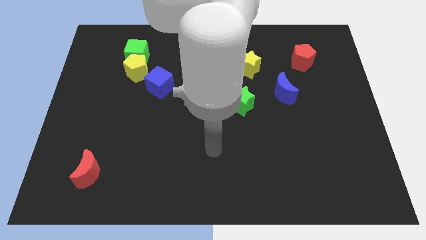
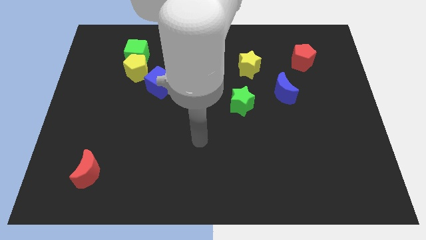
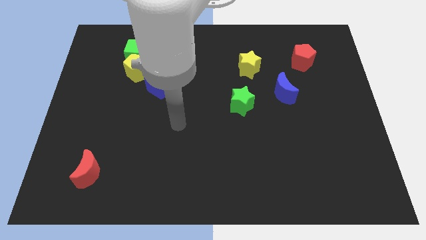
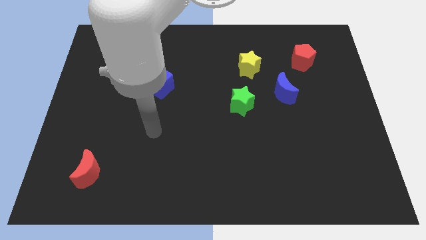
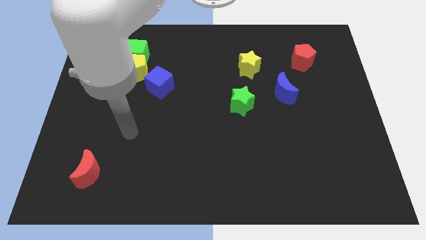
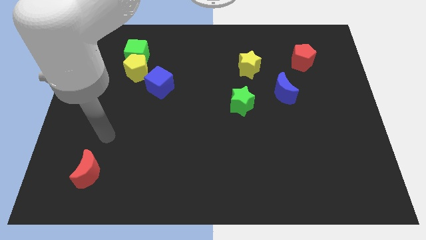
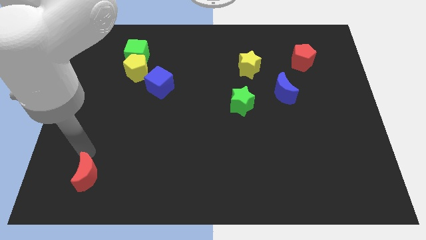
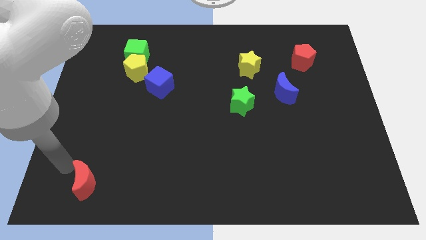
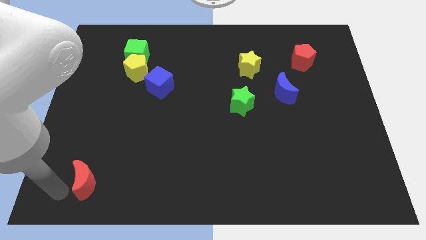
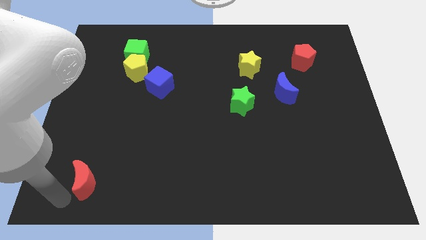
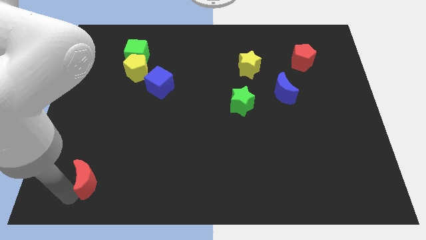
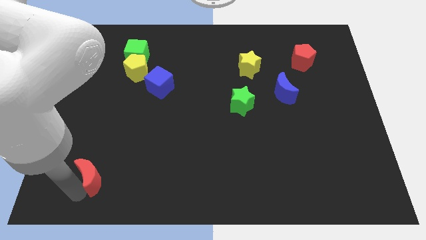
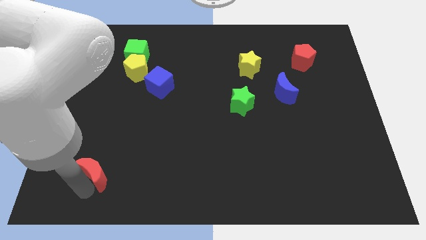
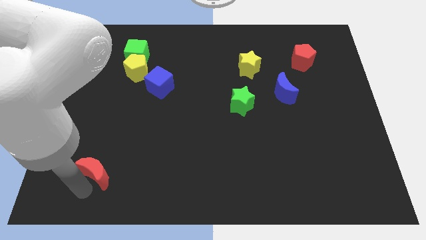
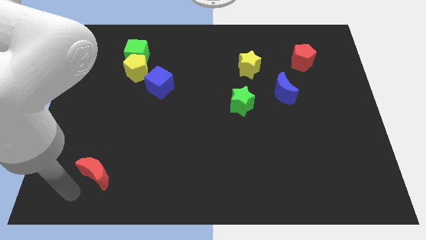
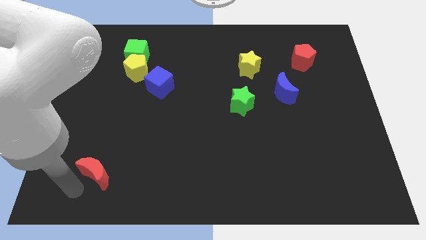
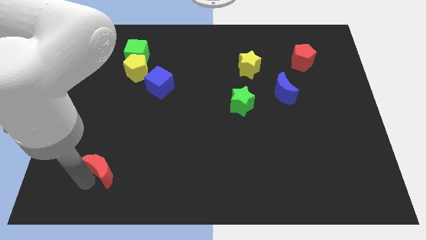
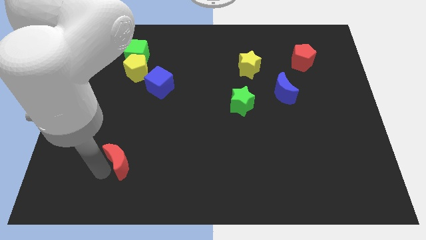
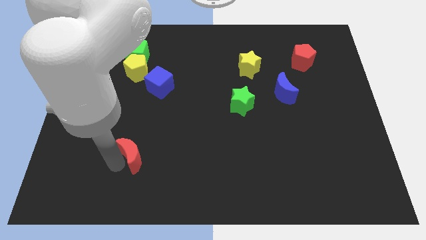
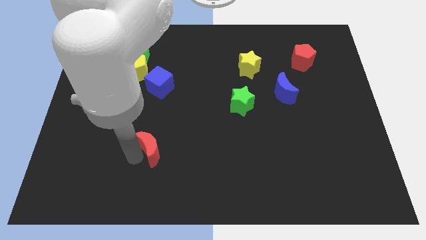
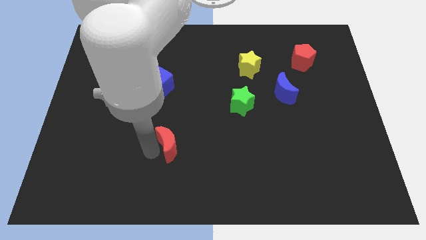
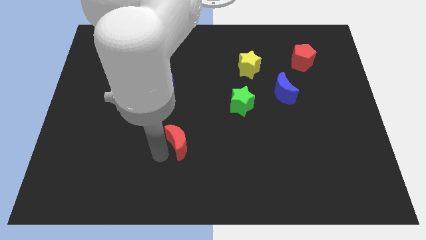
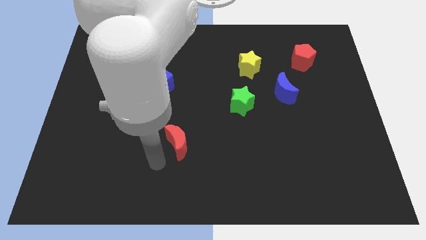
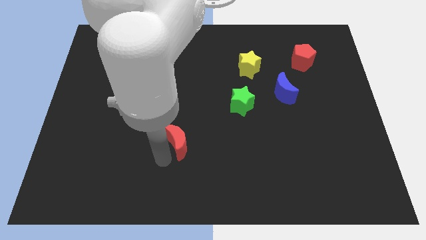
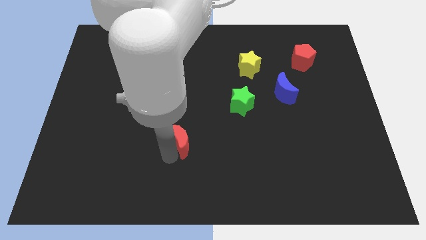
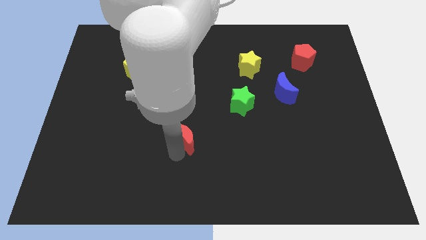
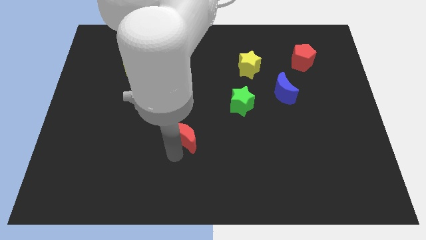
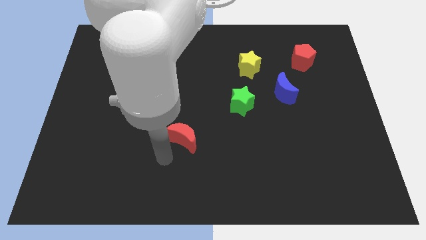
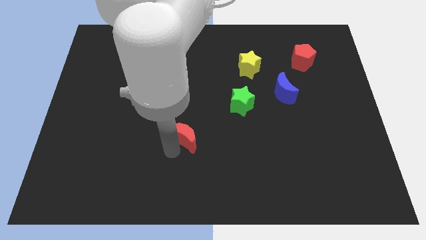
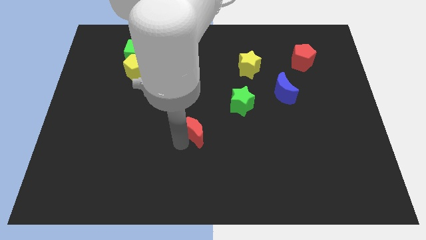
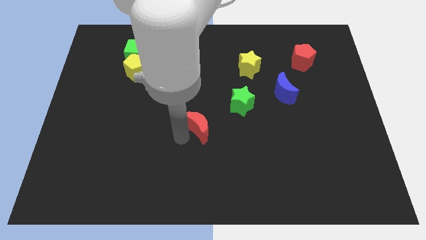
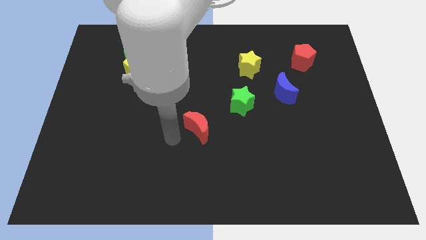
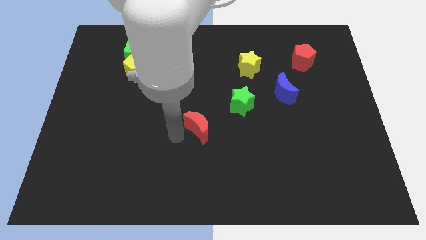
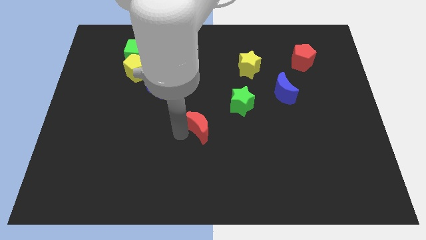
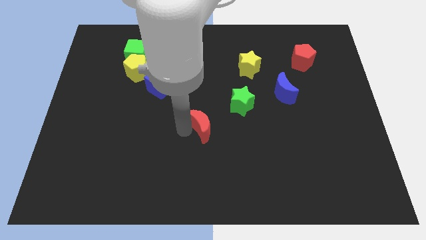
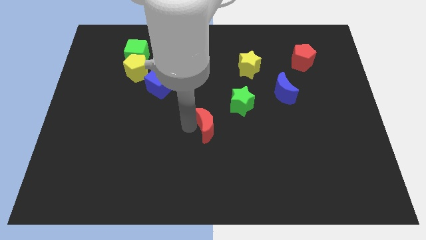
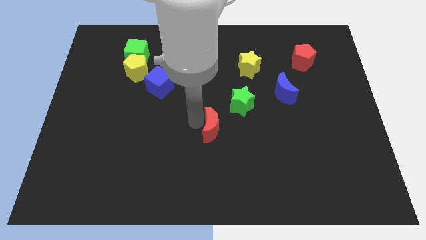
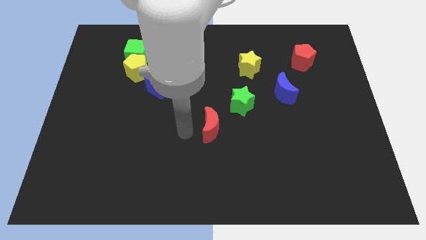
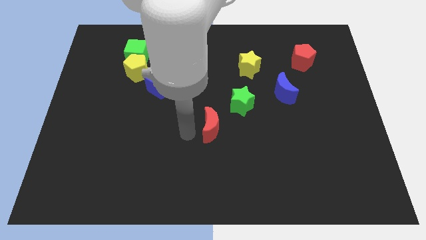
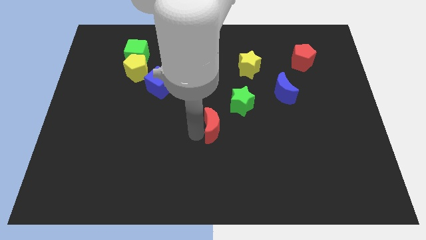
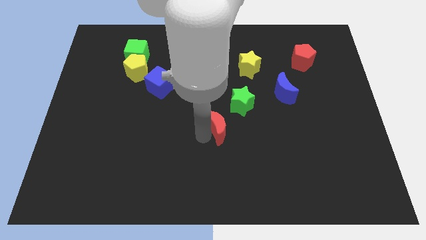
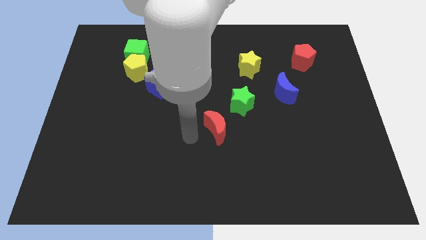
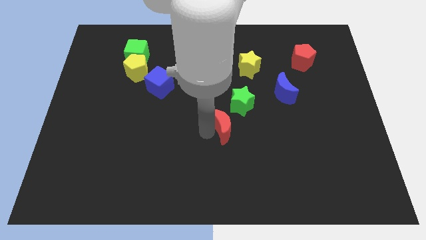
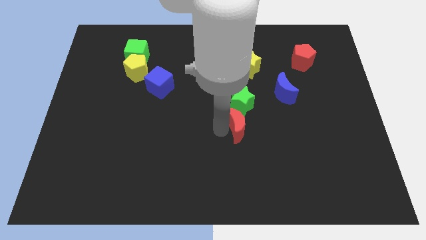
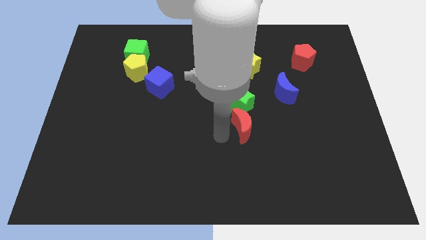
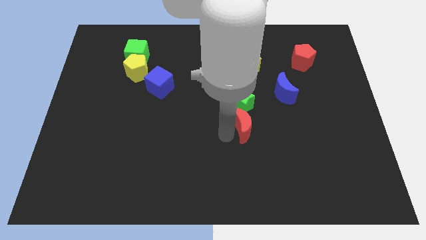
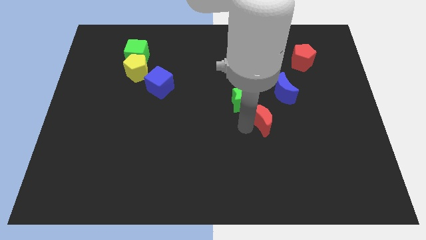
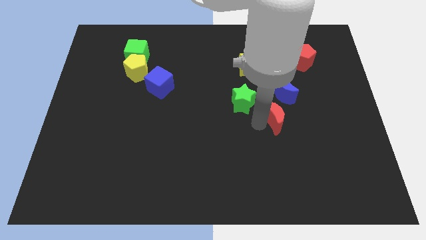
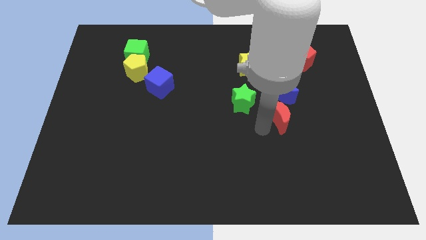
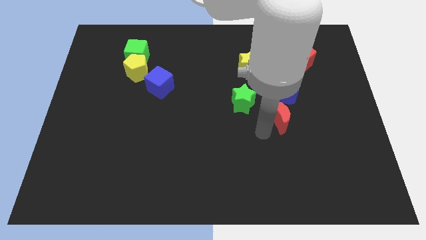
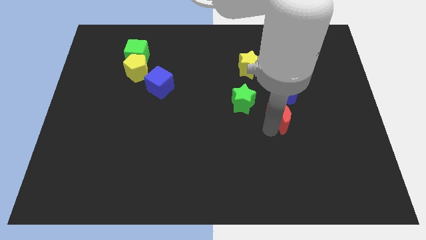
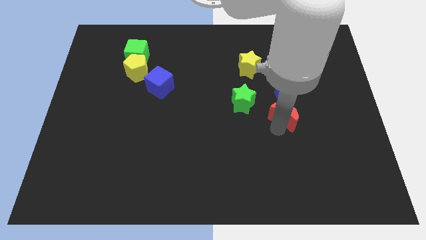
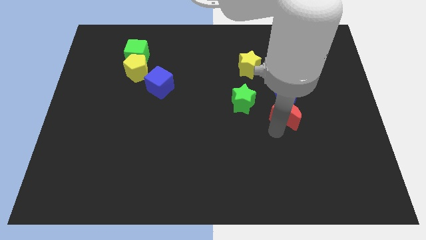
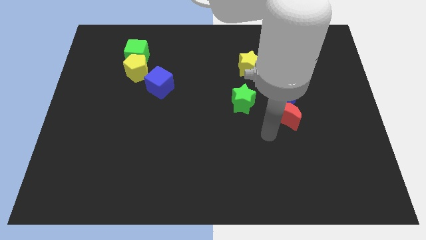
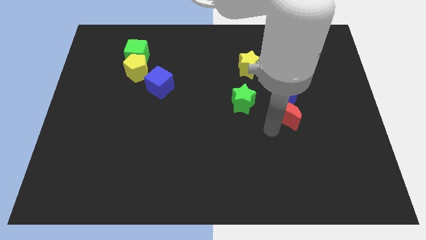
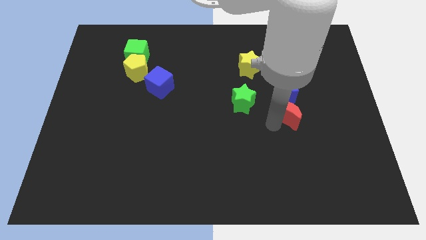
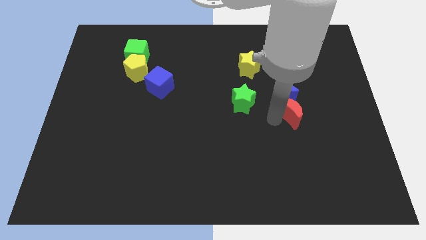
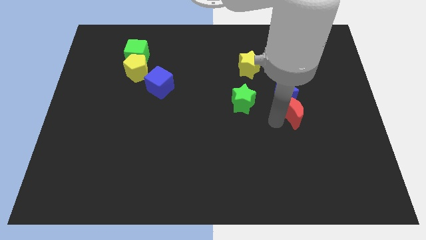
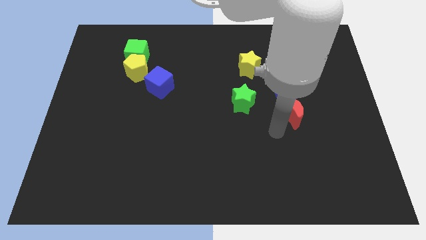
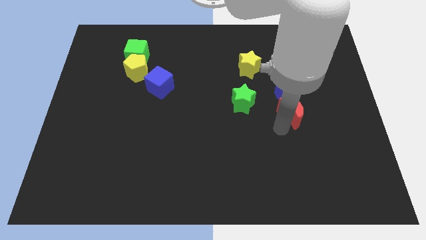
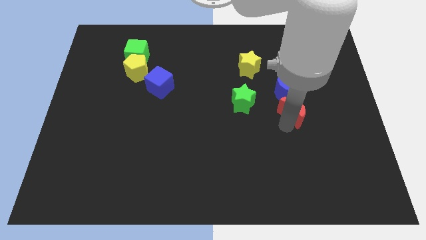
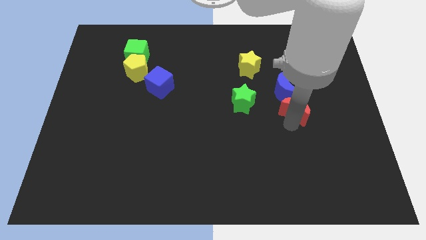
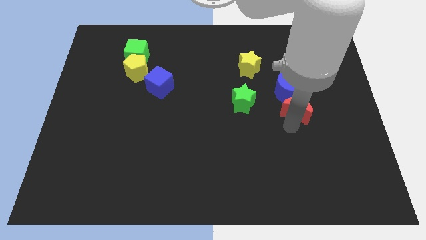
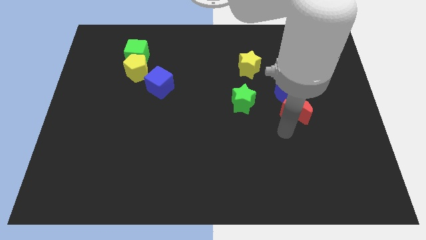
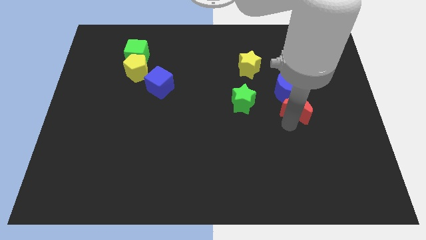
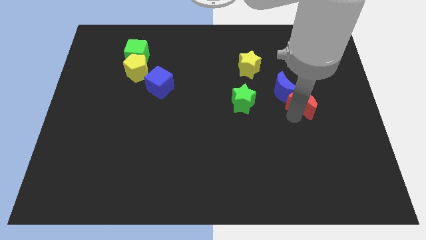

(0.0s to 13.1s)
push the red moon to the right side of the blue moon

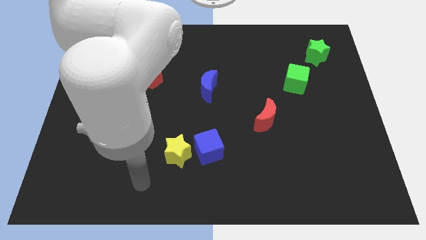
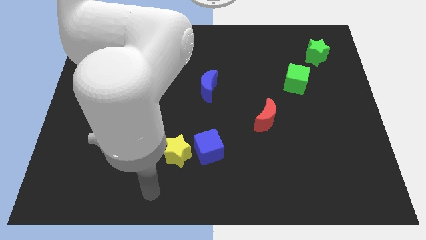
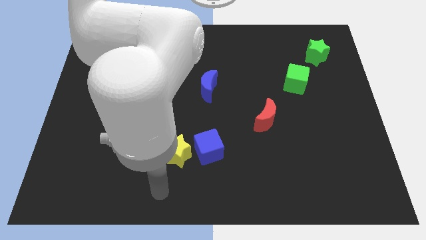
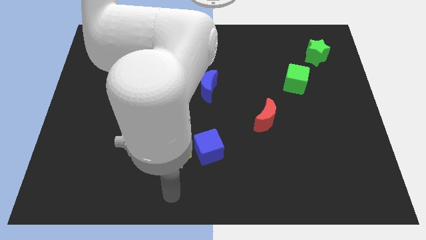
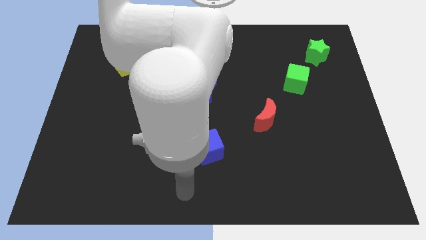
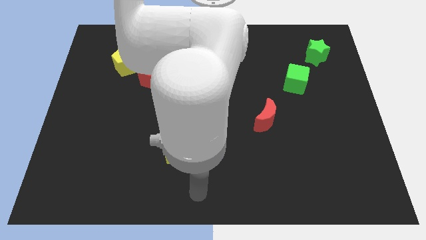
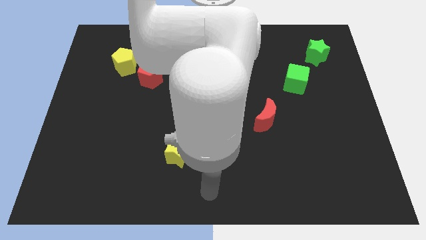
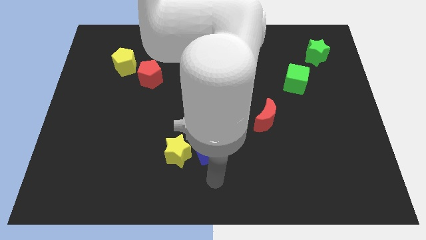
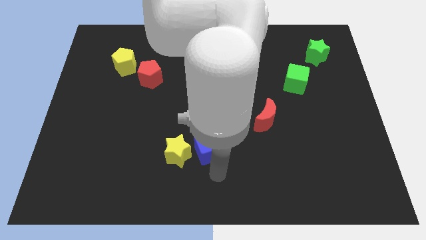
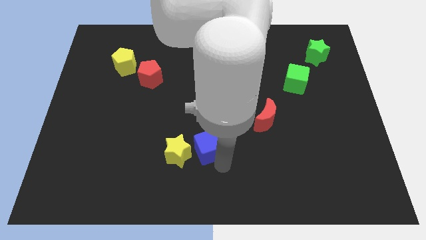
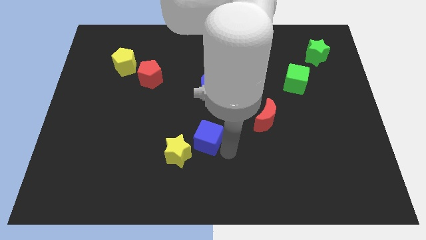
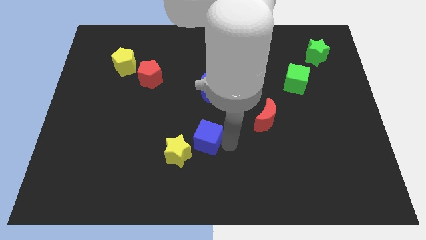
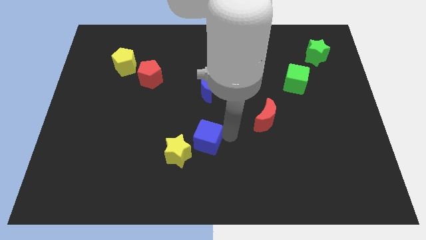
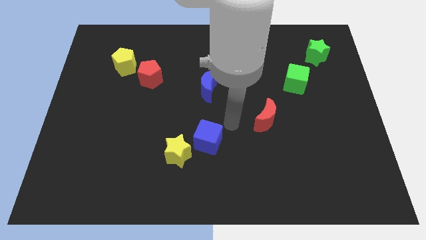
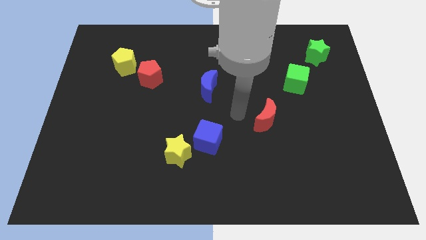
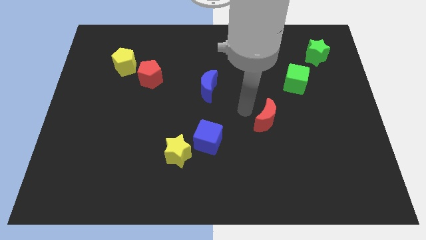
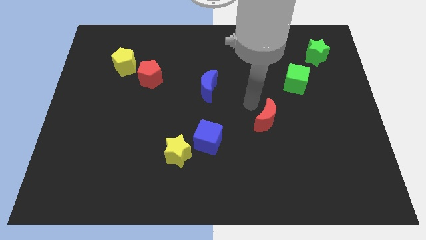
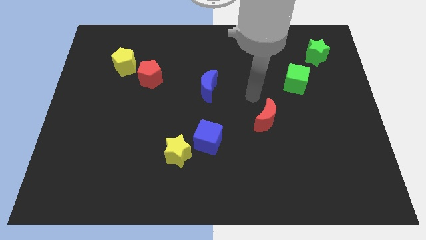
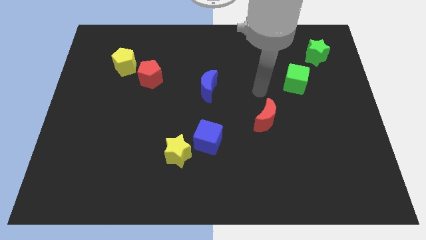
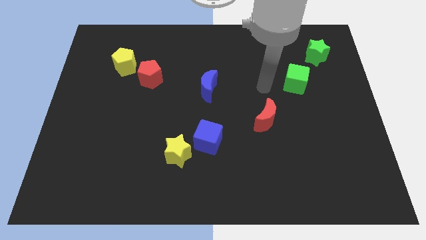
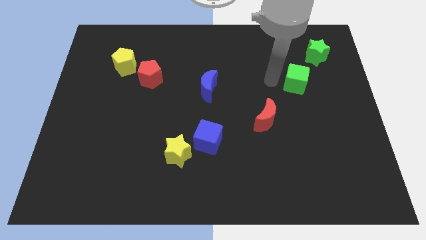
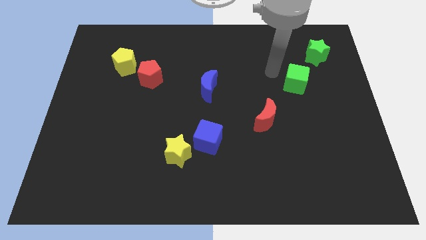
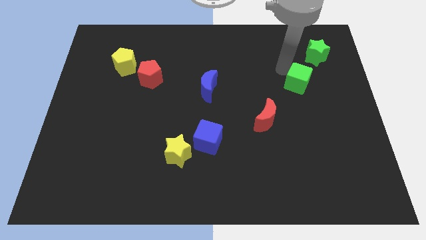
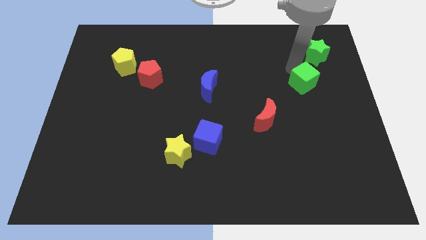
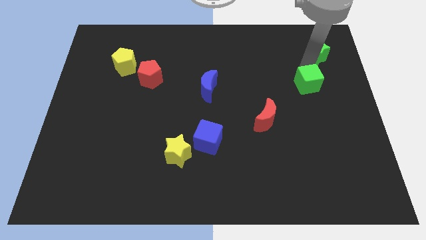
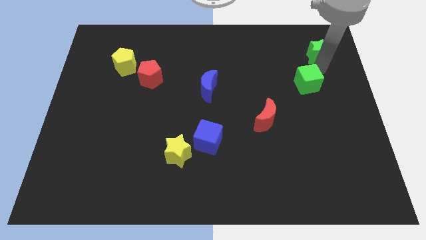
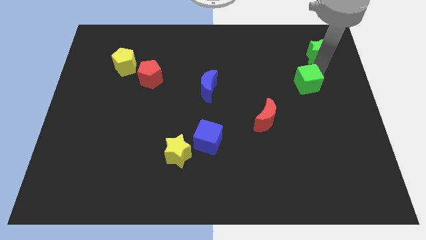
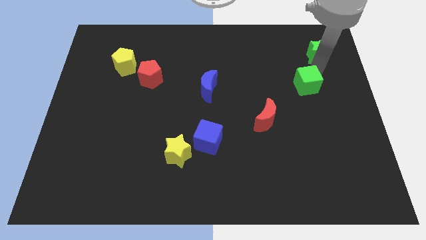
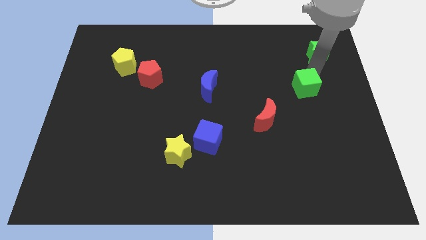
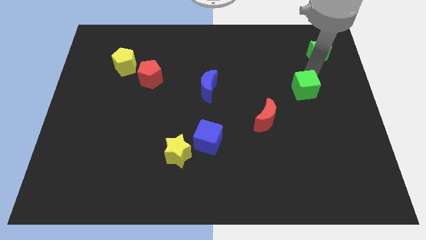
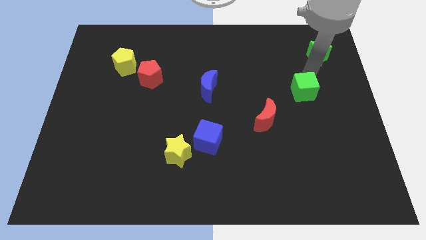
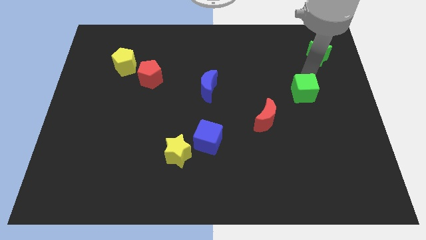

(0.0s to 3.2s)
put the green cube to the top right of the red moon
